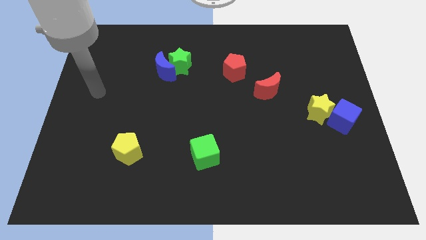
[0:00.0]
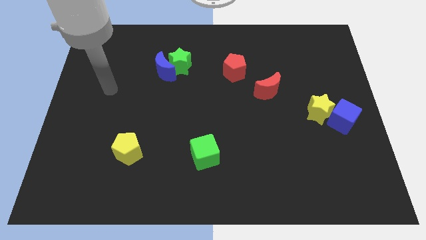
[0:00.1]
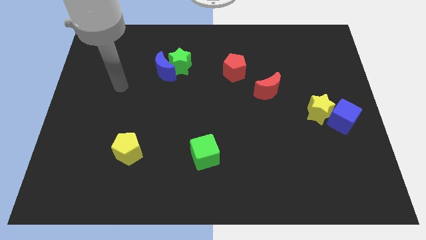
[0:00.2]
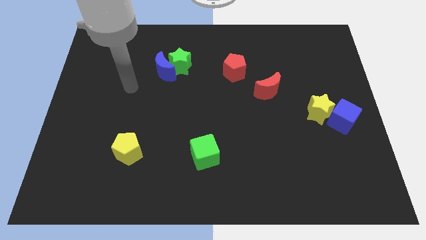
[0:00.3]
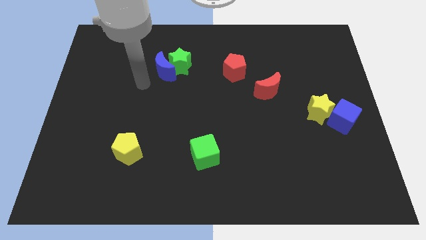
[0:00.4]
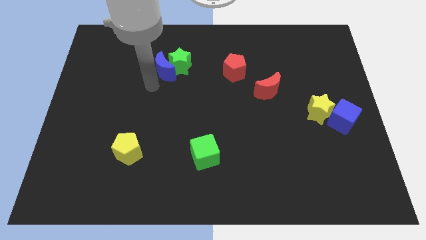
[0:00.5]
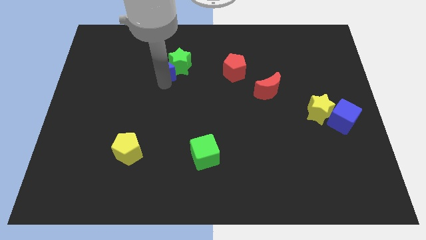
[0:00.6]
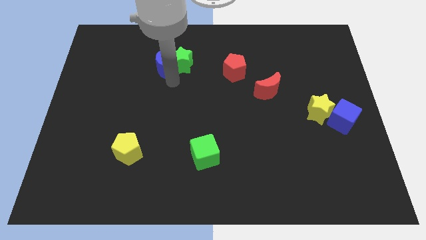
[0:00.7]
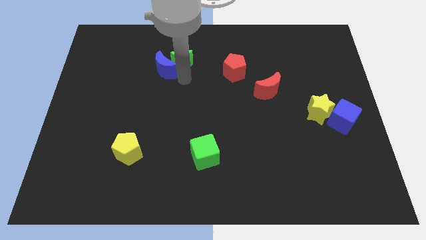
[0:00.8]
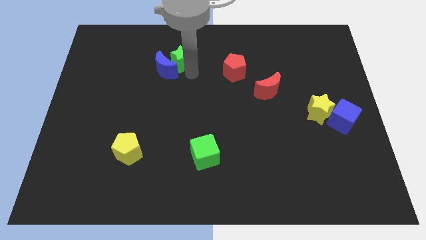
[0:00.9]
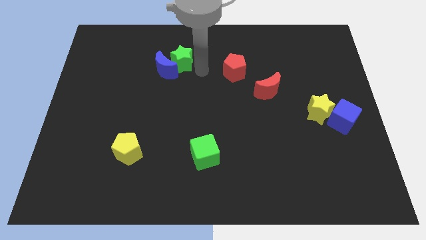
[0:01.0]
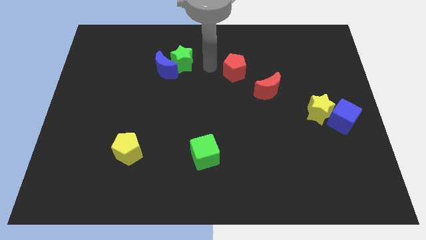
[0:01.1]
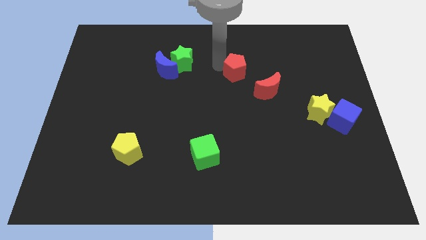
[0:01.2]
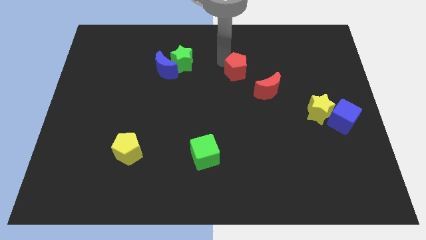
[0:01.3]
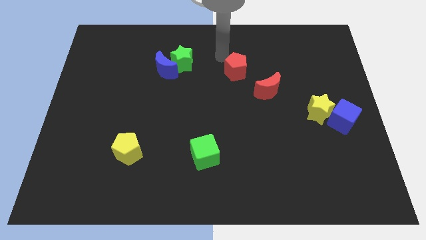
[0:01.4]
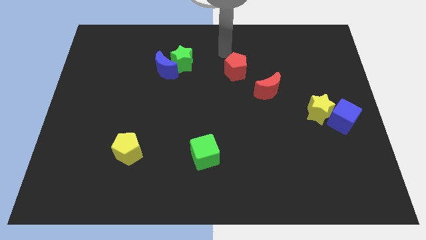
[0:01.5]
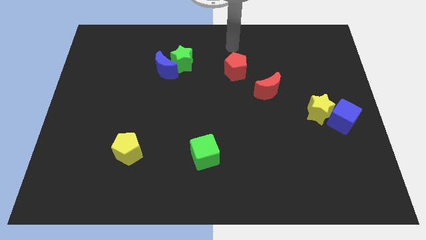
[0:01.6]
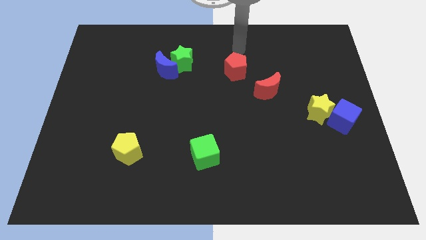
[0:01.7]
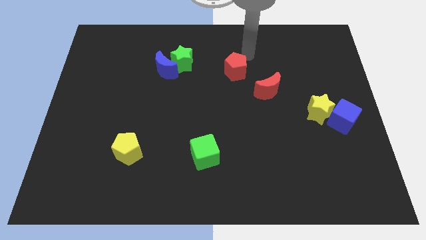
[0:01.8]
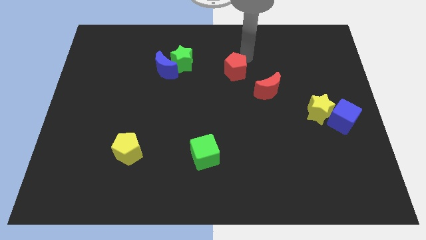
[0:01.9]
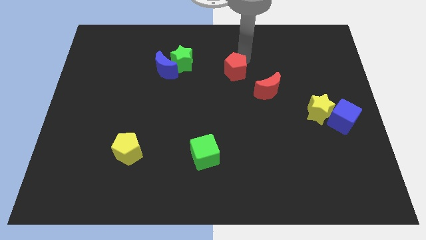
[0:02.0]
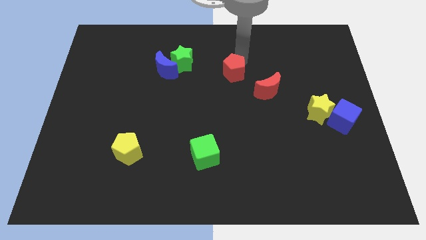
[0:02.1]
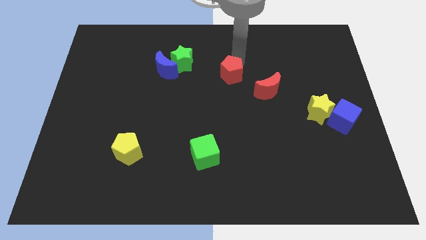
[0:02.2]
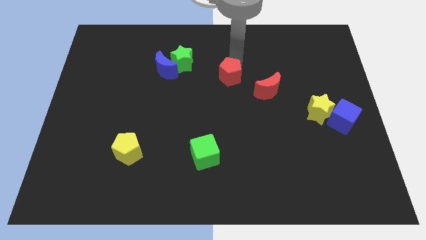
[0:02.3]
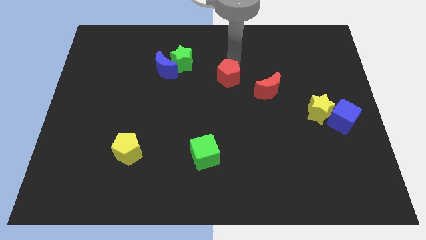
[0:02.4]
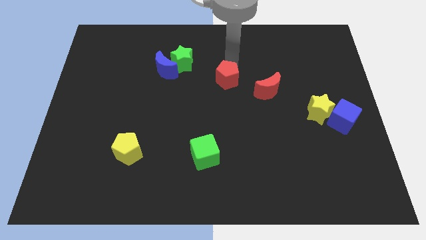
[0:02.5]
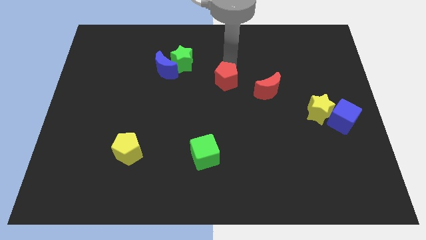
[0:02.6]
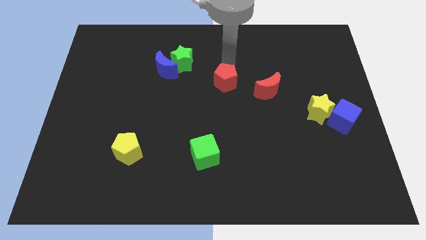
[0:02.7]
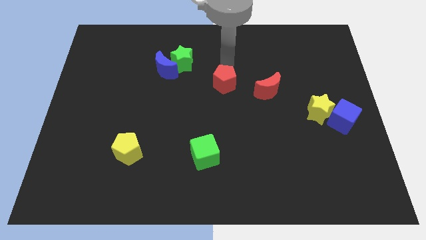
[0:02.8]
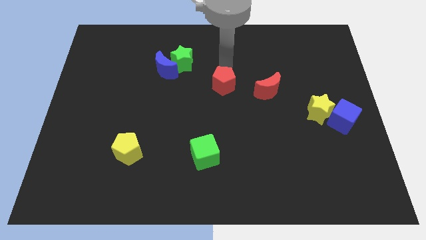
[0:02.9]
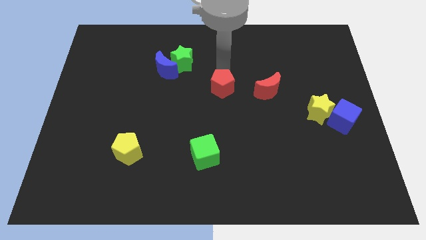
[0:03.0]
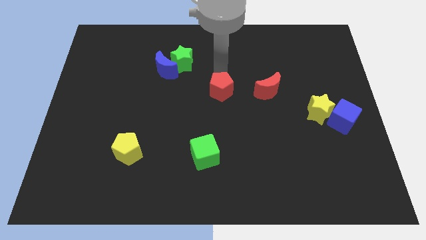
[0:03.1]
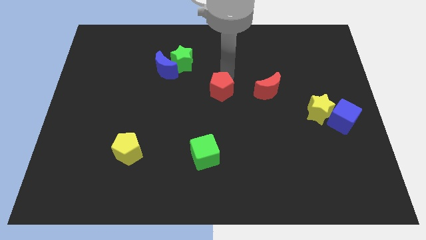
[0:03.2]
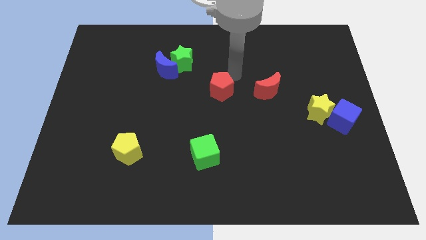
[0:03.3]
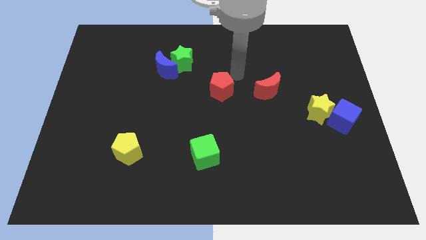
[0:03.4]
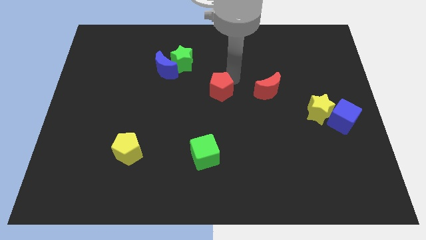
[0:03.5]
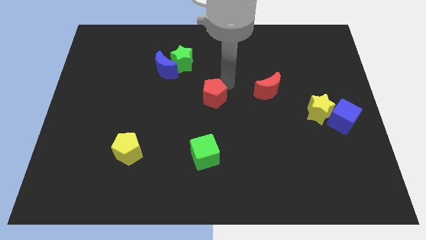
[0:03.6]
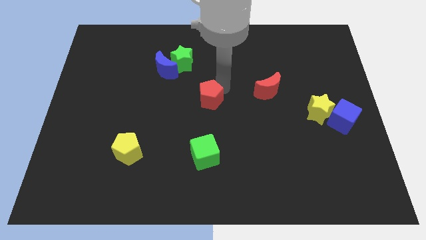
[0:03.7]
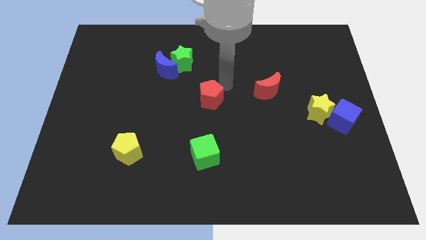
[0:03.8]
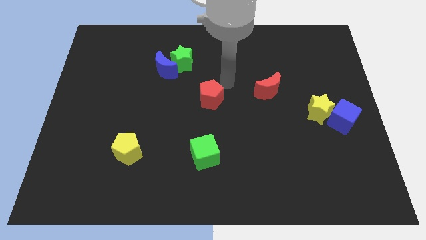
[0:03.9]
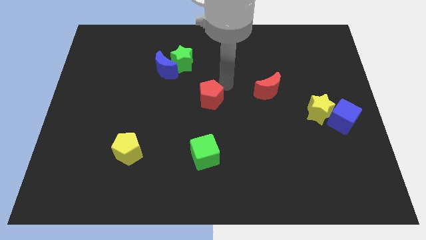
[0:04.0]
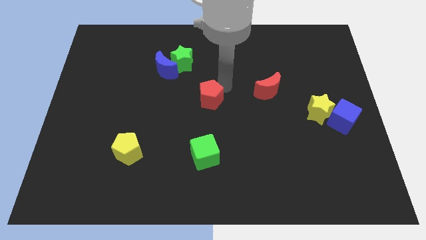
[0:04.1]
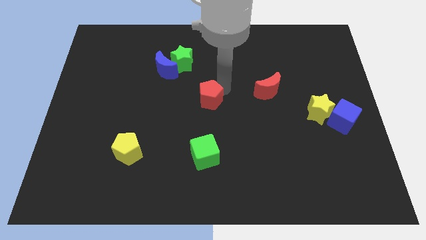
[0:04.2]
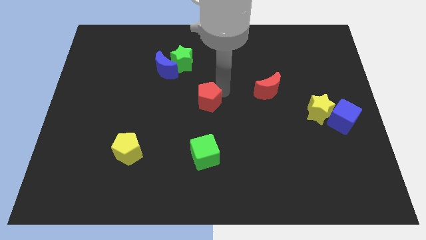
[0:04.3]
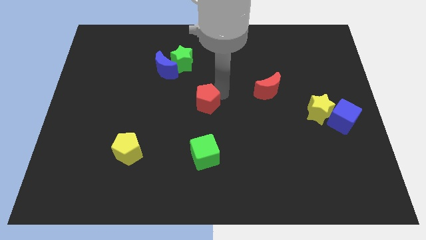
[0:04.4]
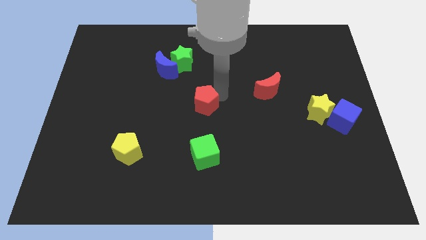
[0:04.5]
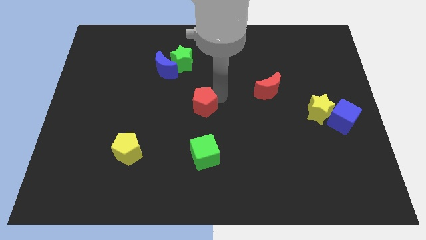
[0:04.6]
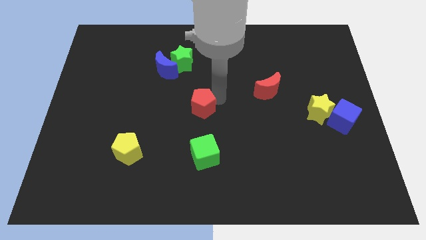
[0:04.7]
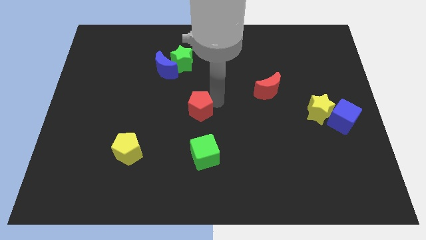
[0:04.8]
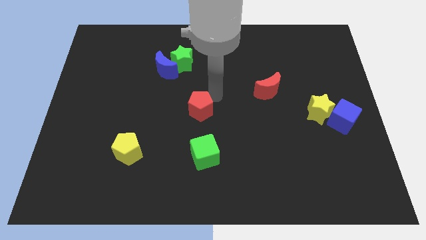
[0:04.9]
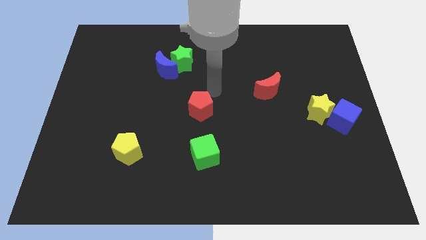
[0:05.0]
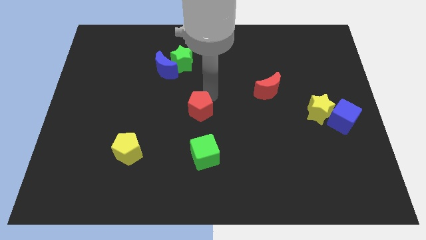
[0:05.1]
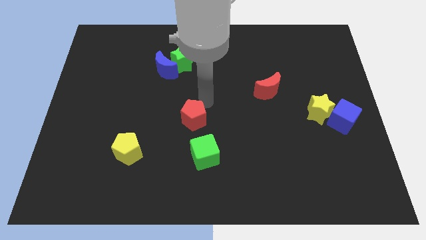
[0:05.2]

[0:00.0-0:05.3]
move the red pentagon diagonally up and to the left of the green cube

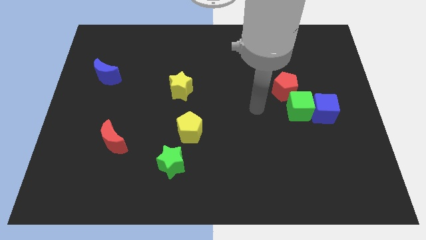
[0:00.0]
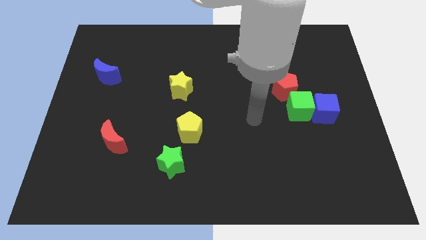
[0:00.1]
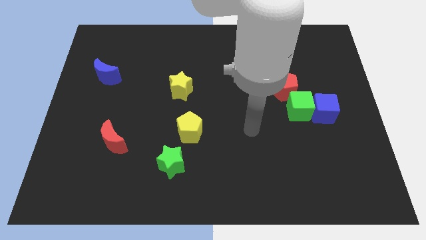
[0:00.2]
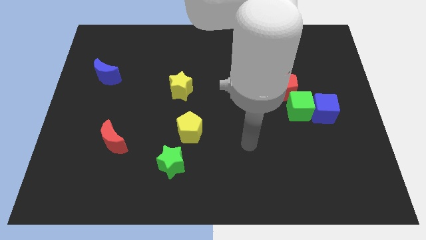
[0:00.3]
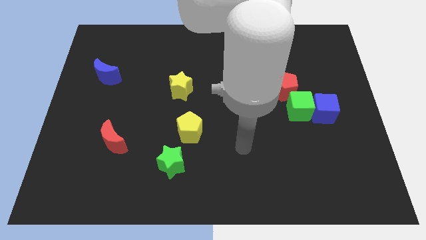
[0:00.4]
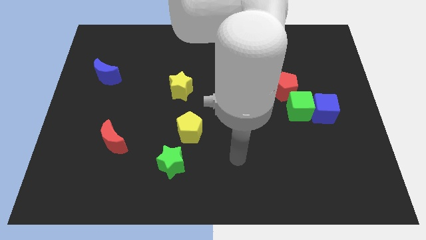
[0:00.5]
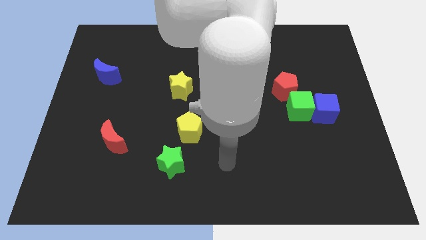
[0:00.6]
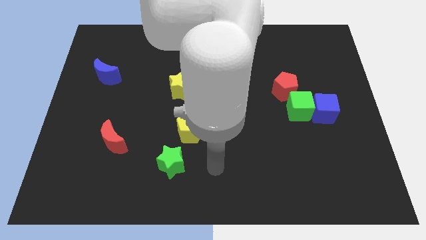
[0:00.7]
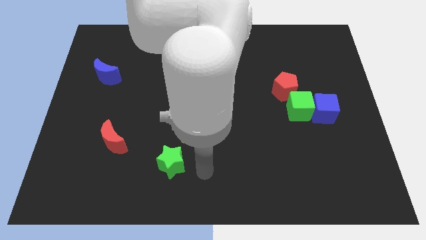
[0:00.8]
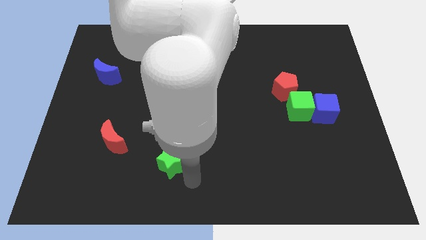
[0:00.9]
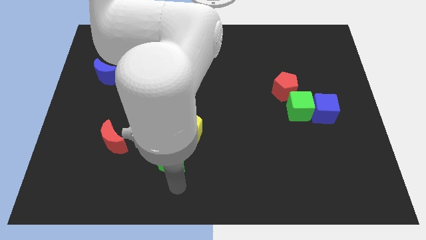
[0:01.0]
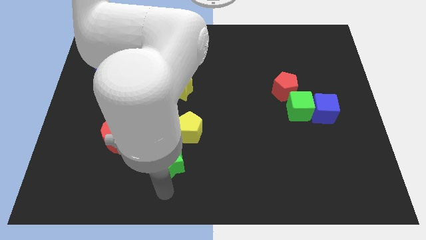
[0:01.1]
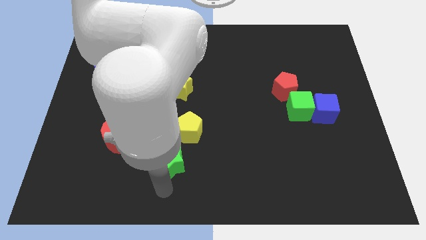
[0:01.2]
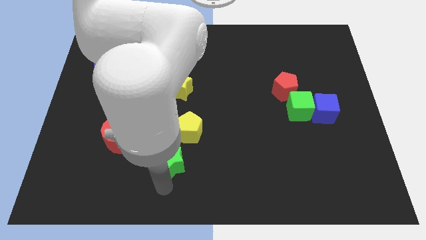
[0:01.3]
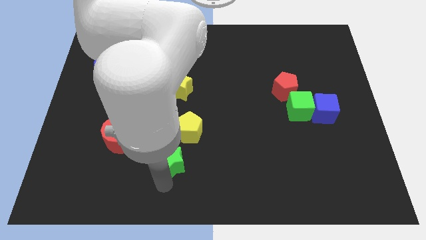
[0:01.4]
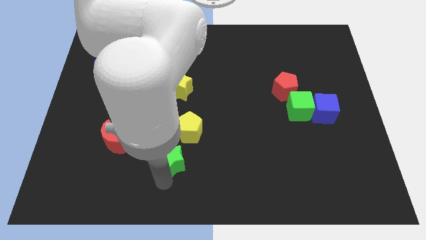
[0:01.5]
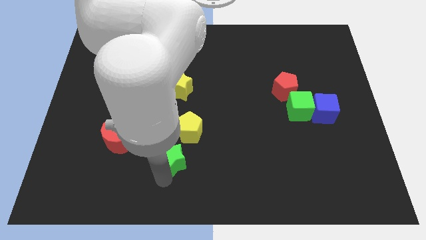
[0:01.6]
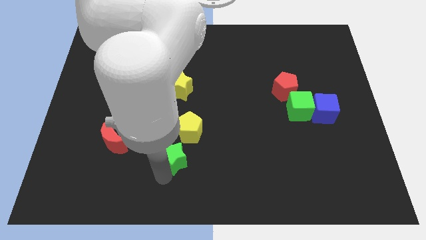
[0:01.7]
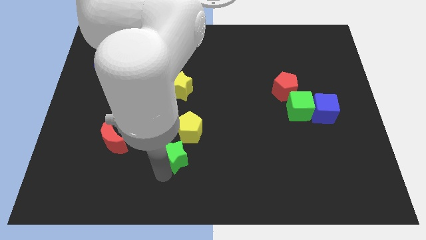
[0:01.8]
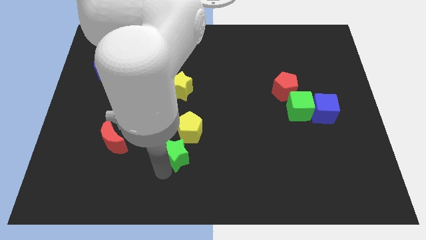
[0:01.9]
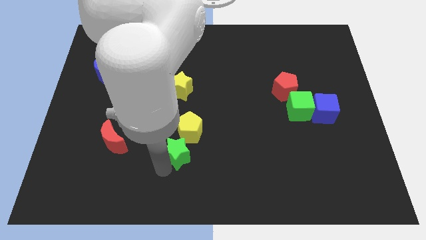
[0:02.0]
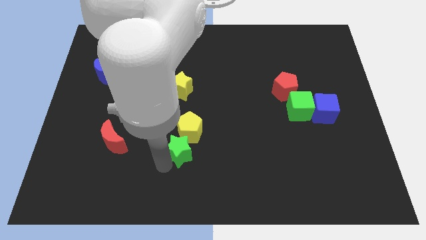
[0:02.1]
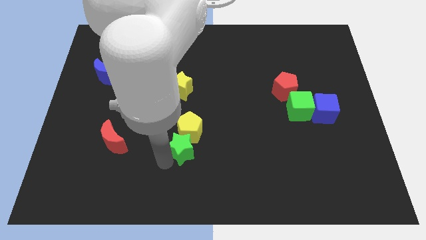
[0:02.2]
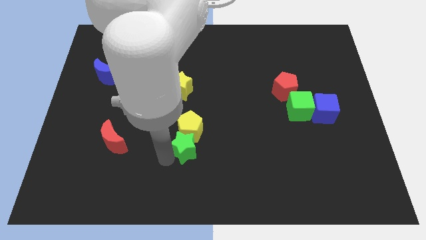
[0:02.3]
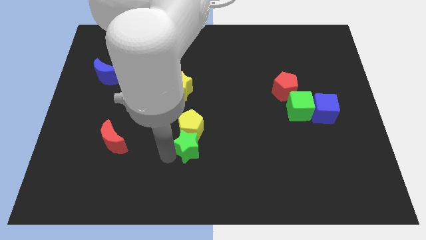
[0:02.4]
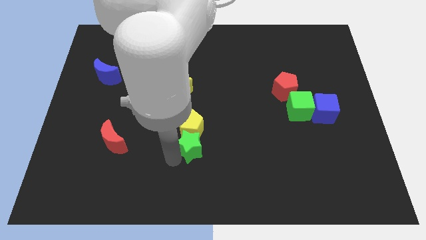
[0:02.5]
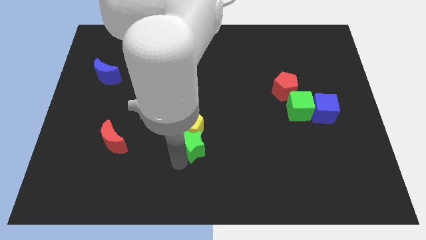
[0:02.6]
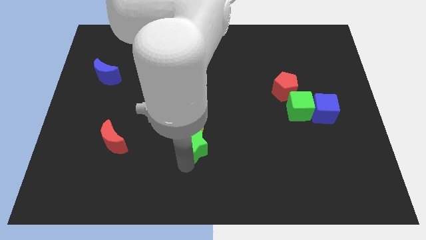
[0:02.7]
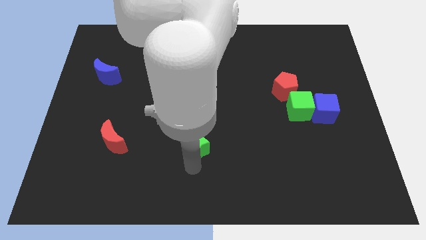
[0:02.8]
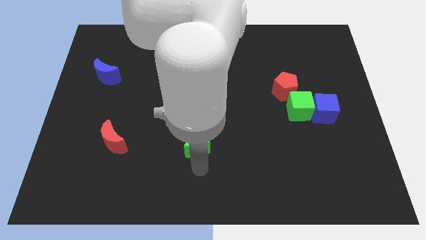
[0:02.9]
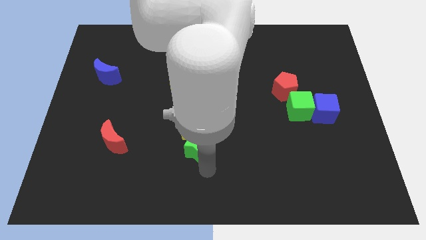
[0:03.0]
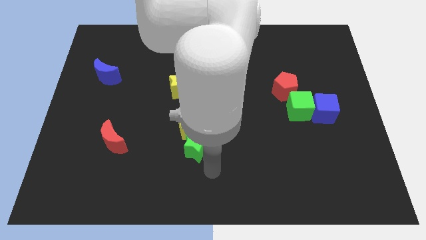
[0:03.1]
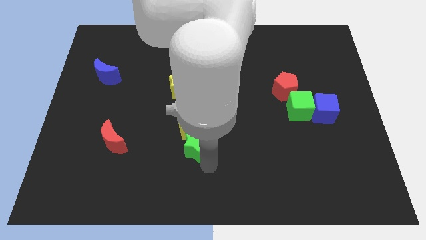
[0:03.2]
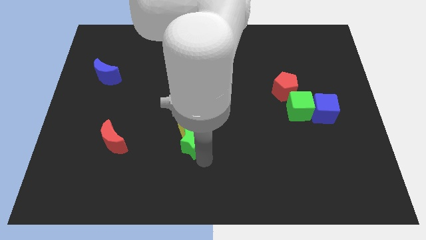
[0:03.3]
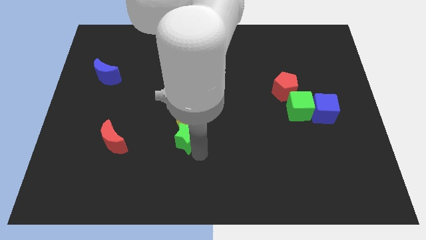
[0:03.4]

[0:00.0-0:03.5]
put the green star to the bottom side of the yellow star
